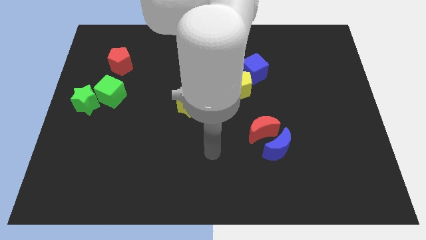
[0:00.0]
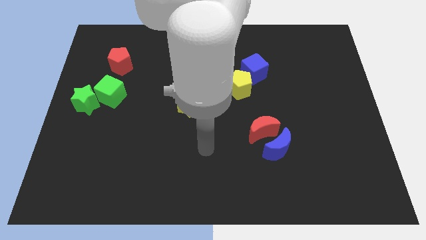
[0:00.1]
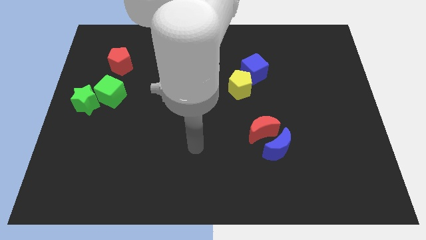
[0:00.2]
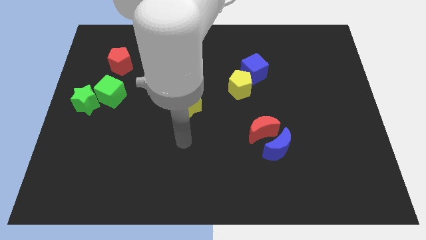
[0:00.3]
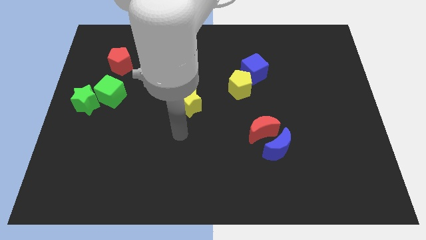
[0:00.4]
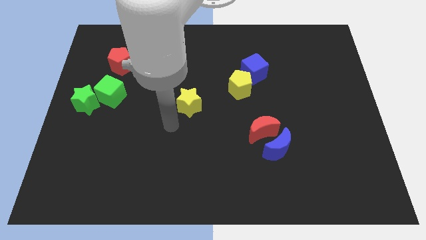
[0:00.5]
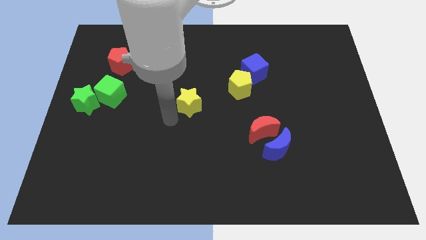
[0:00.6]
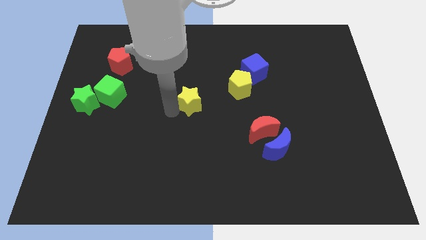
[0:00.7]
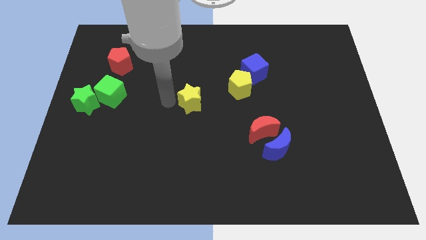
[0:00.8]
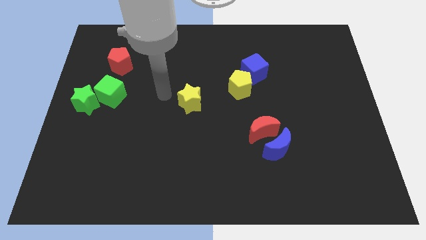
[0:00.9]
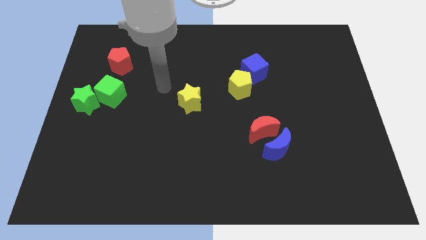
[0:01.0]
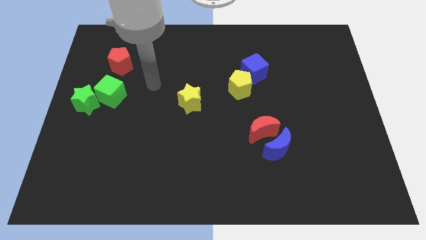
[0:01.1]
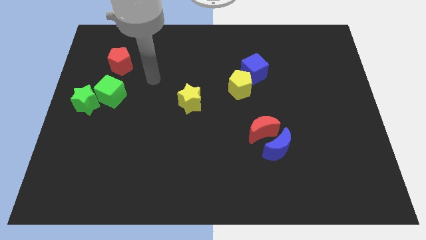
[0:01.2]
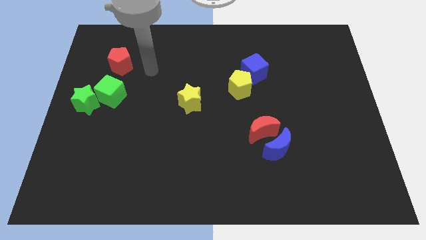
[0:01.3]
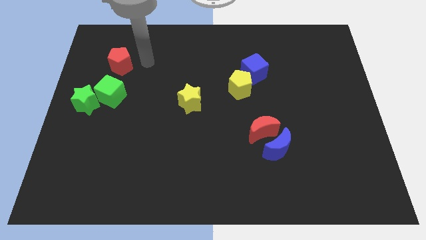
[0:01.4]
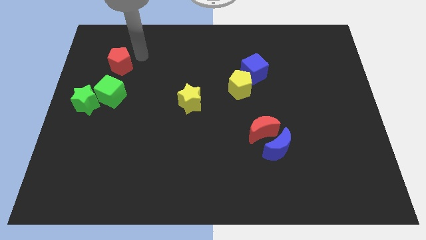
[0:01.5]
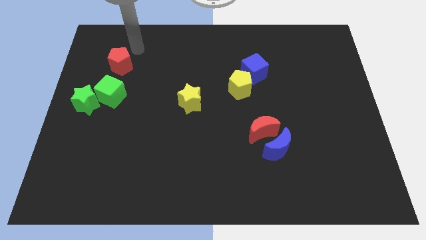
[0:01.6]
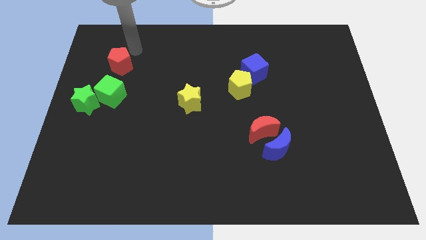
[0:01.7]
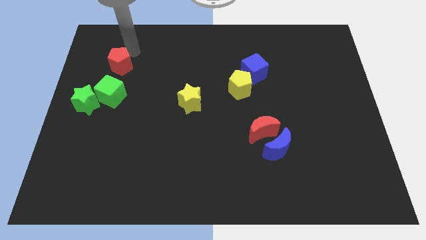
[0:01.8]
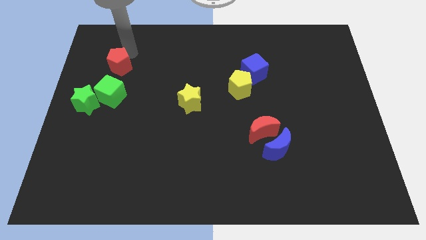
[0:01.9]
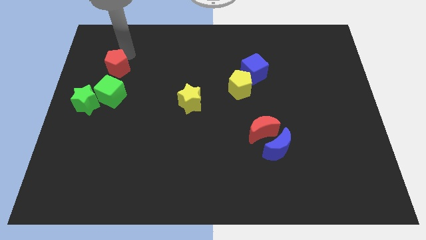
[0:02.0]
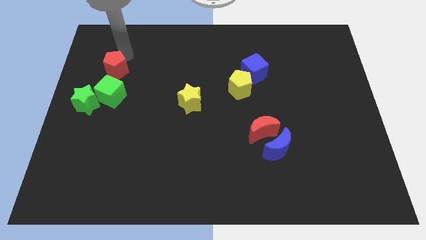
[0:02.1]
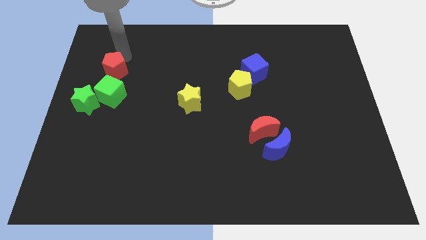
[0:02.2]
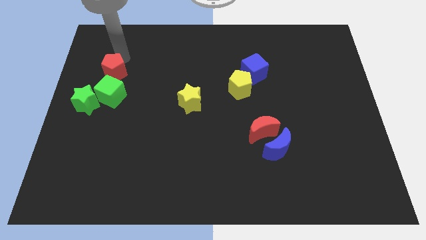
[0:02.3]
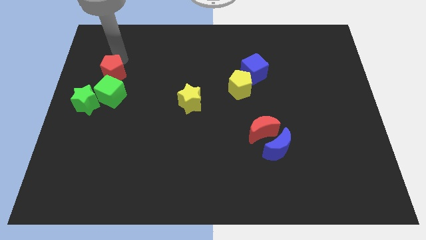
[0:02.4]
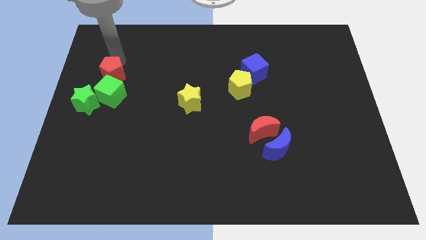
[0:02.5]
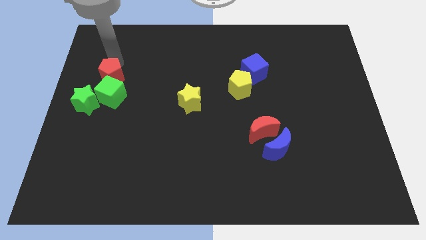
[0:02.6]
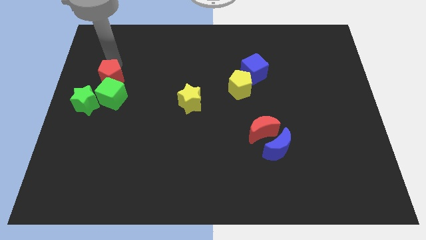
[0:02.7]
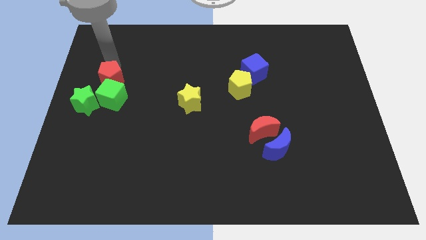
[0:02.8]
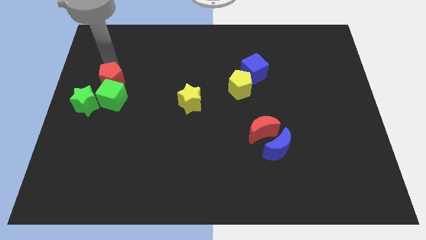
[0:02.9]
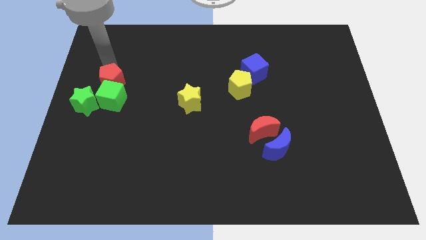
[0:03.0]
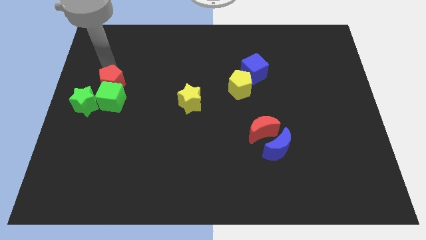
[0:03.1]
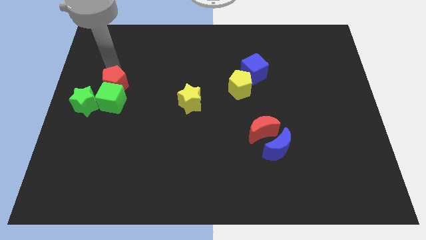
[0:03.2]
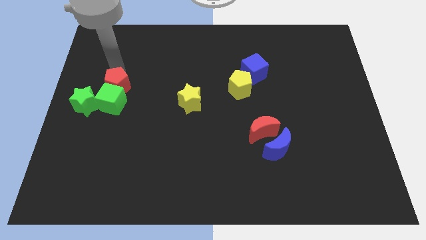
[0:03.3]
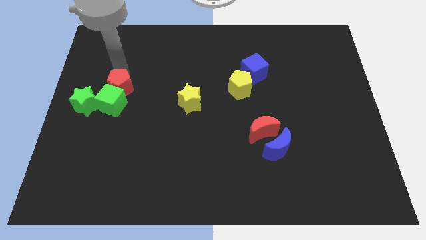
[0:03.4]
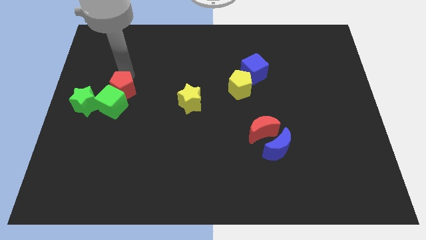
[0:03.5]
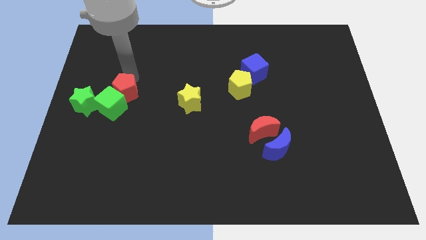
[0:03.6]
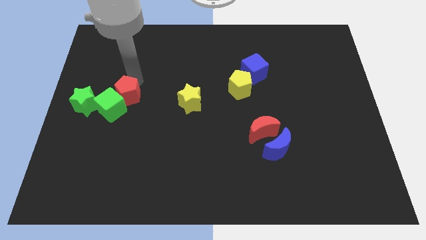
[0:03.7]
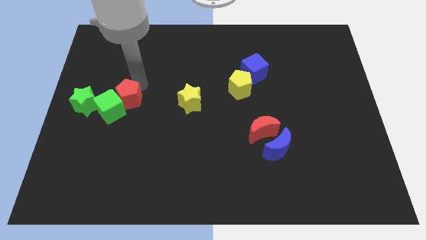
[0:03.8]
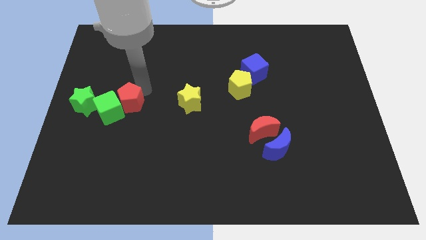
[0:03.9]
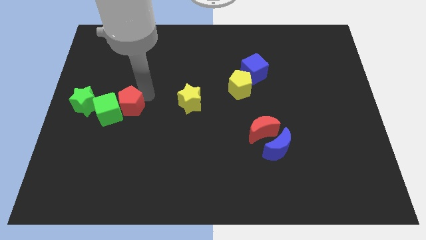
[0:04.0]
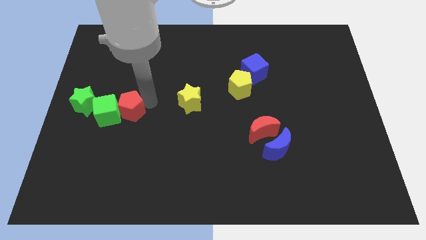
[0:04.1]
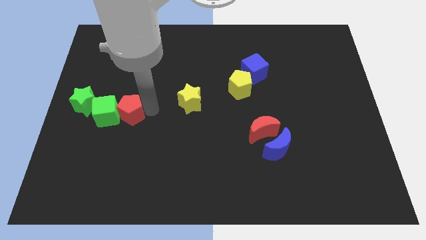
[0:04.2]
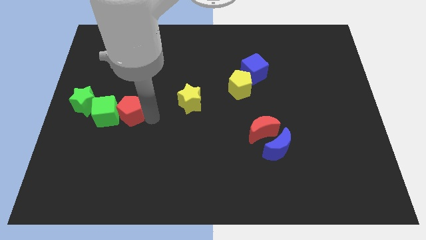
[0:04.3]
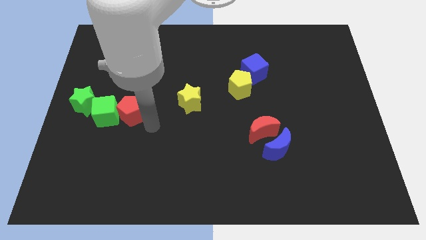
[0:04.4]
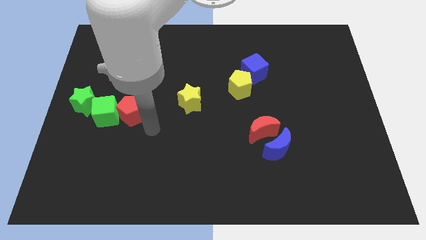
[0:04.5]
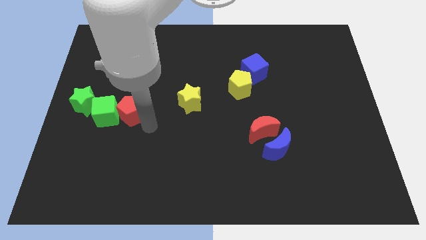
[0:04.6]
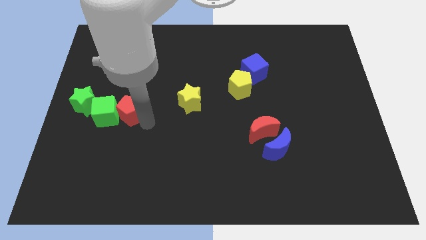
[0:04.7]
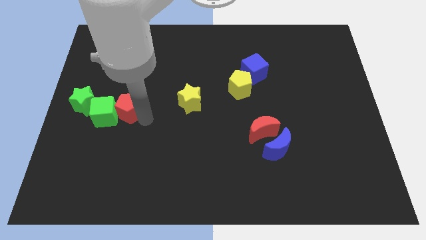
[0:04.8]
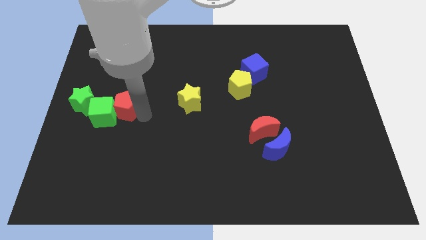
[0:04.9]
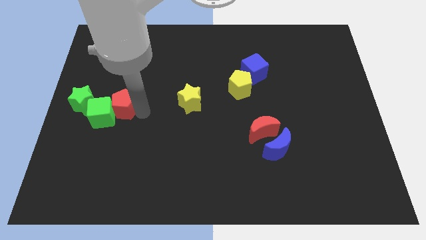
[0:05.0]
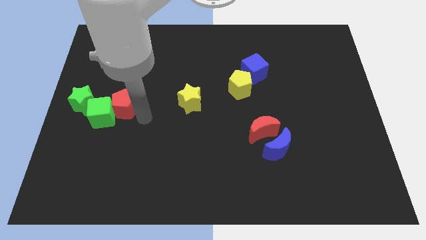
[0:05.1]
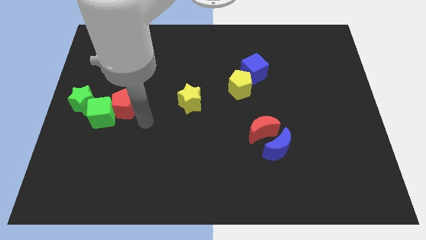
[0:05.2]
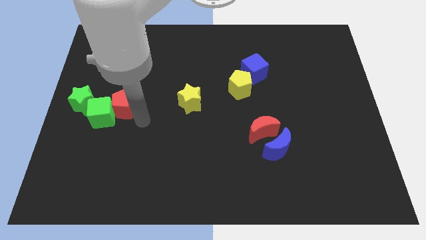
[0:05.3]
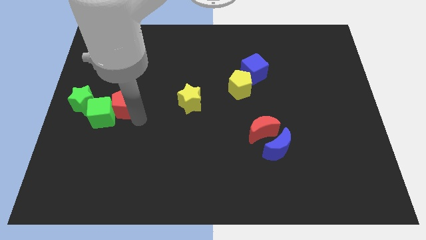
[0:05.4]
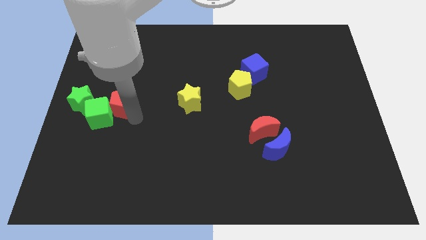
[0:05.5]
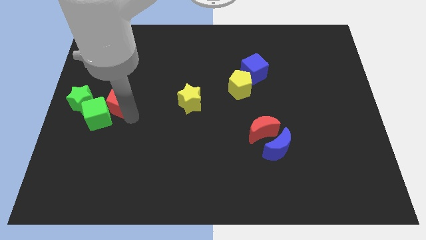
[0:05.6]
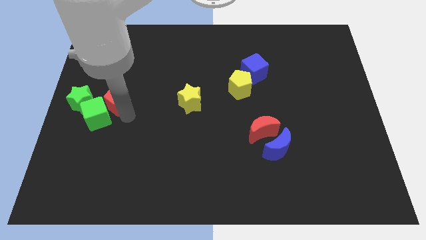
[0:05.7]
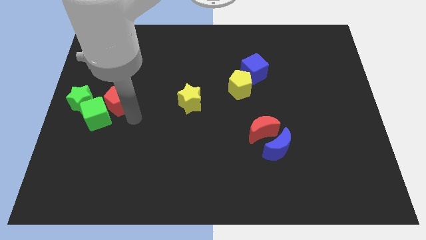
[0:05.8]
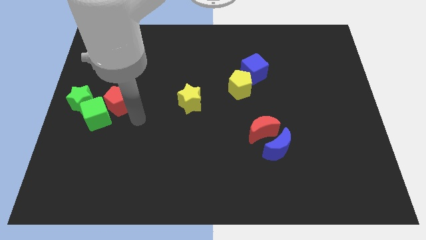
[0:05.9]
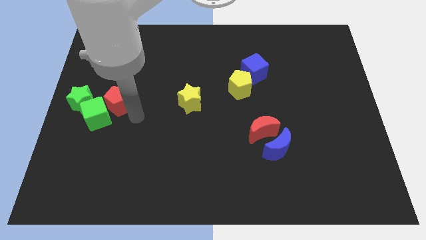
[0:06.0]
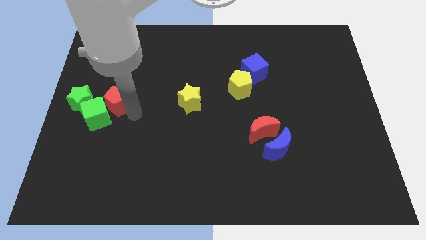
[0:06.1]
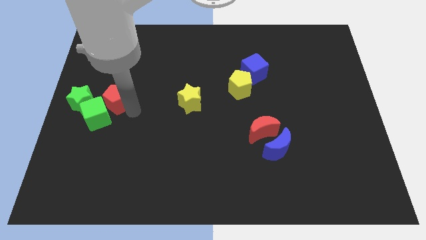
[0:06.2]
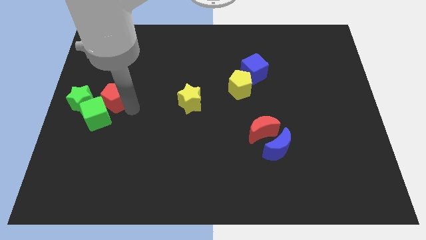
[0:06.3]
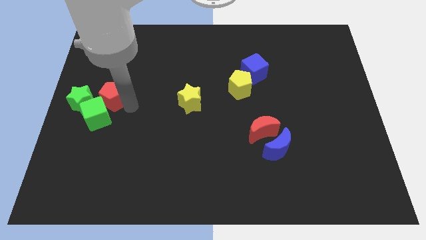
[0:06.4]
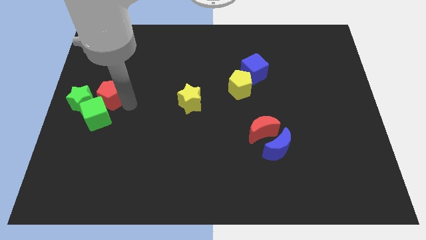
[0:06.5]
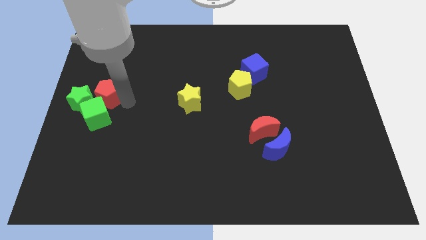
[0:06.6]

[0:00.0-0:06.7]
slide the red pentagon towards the green star
